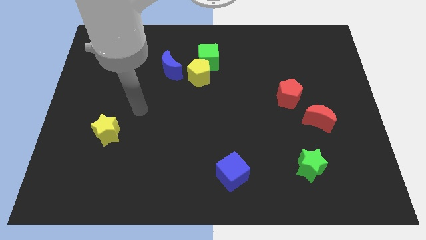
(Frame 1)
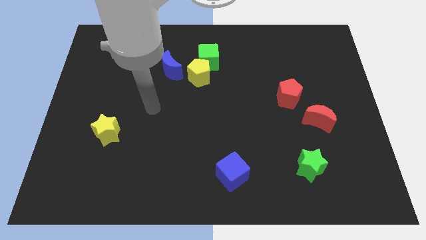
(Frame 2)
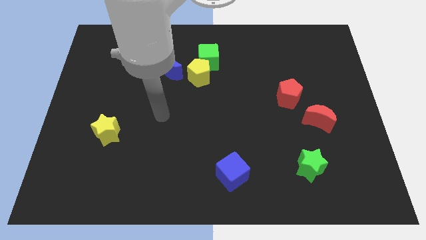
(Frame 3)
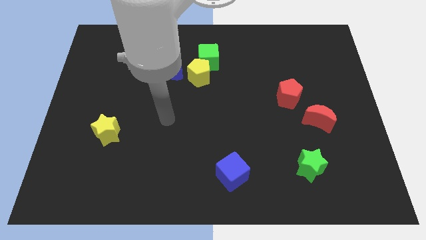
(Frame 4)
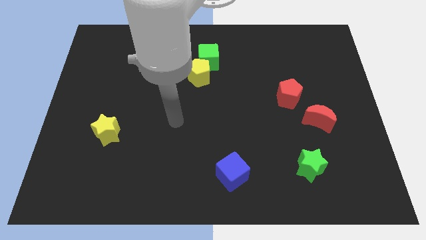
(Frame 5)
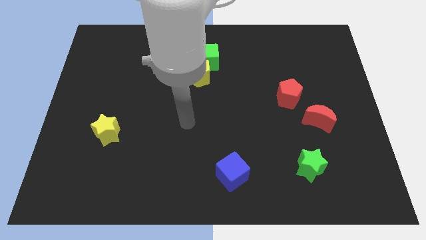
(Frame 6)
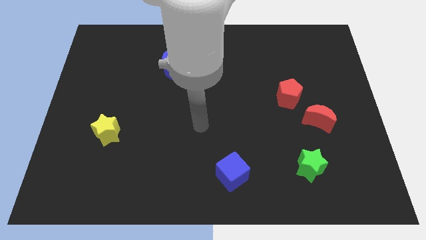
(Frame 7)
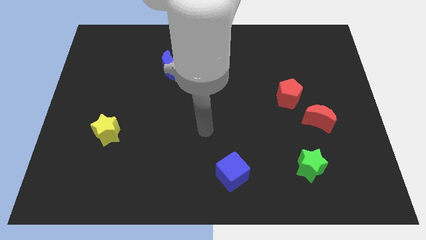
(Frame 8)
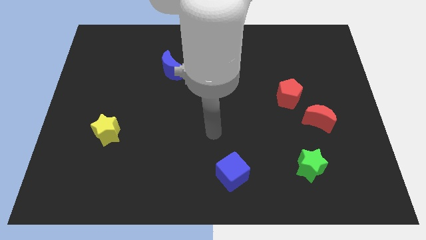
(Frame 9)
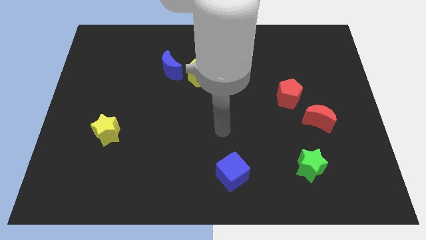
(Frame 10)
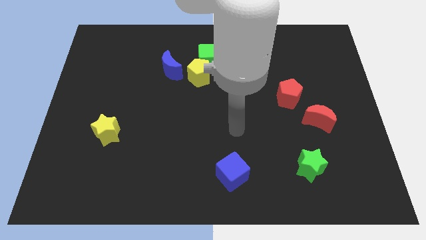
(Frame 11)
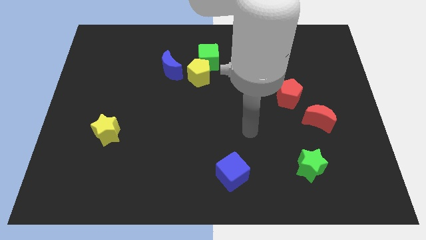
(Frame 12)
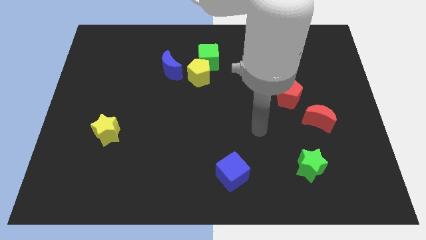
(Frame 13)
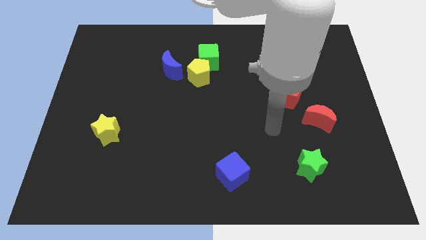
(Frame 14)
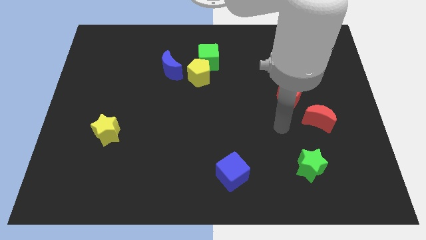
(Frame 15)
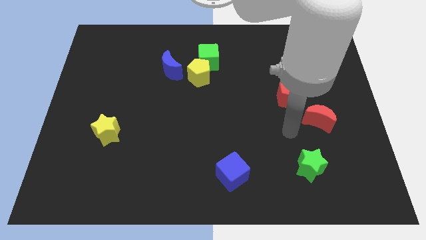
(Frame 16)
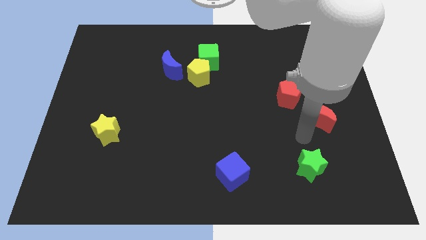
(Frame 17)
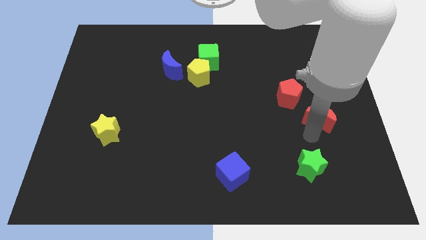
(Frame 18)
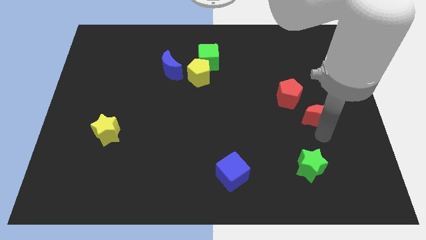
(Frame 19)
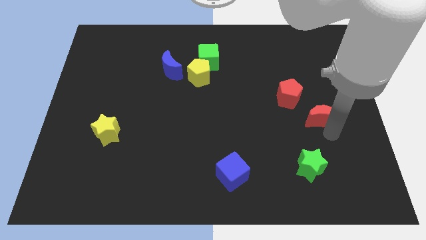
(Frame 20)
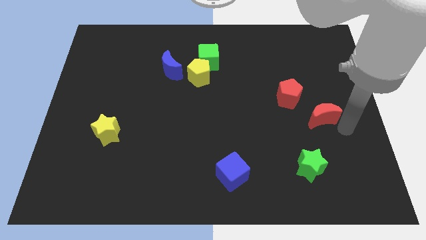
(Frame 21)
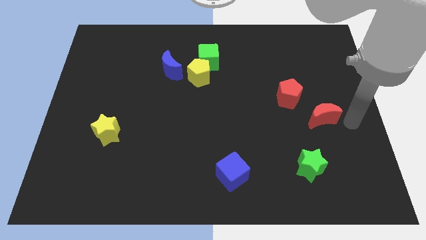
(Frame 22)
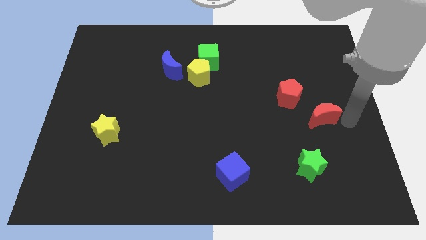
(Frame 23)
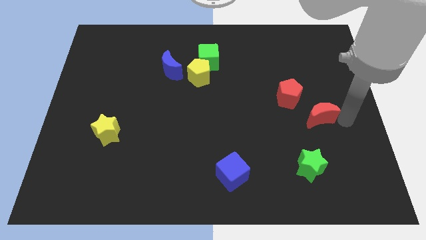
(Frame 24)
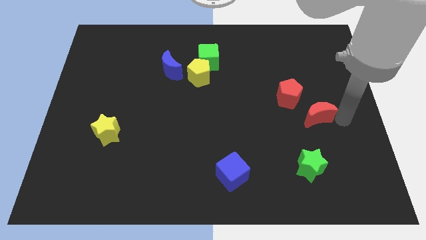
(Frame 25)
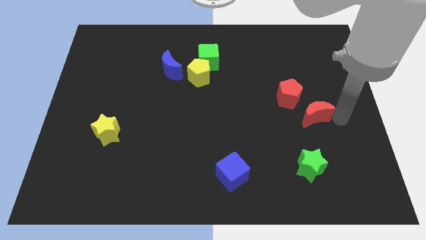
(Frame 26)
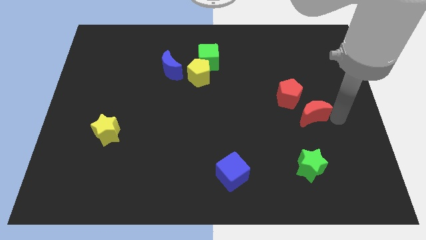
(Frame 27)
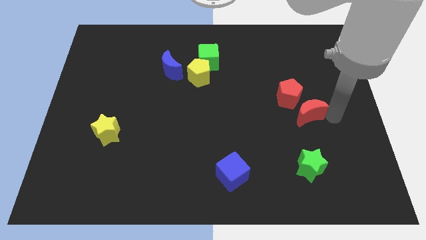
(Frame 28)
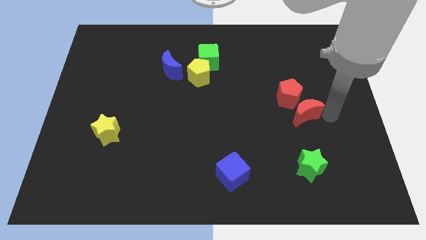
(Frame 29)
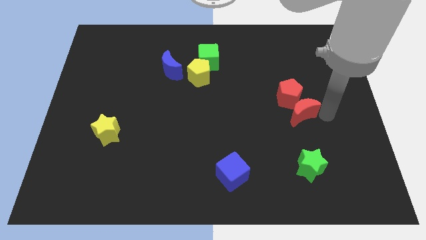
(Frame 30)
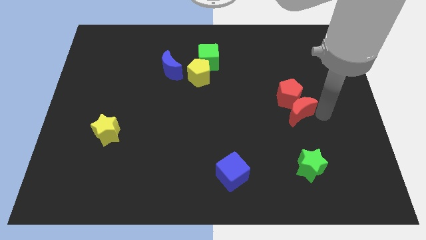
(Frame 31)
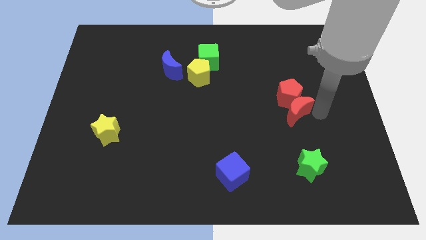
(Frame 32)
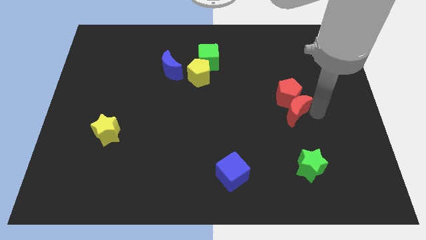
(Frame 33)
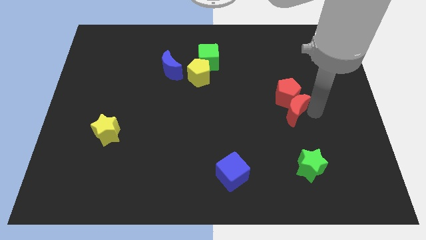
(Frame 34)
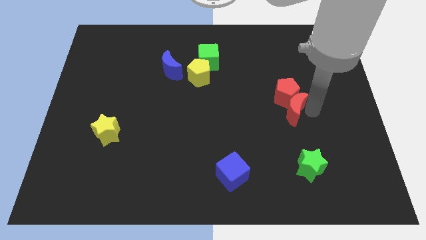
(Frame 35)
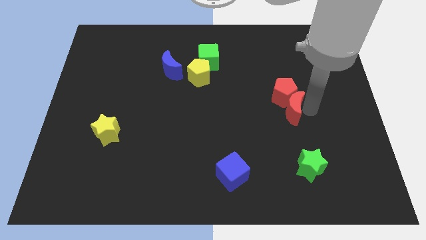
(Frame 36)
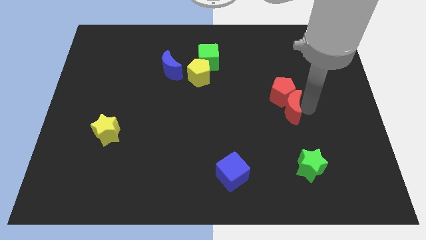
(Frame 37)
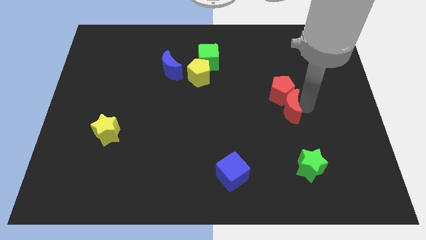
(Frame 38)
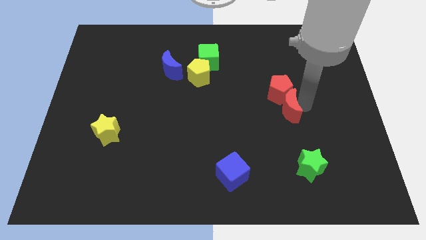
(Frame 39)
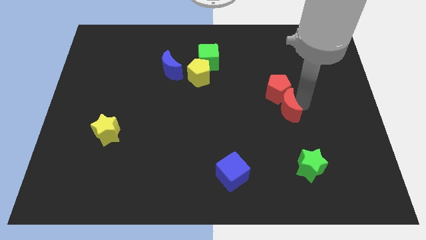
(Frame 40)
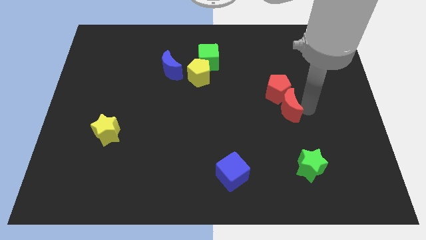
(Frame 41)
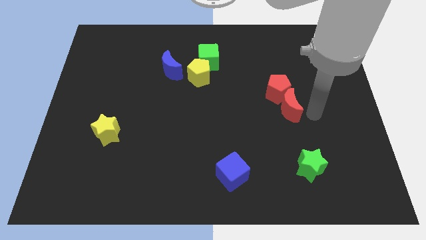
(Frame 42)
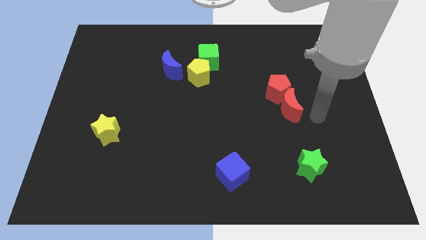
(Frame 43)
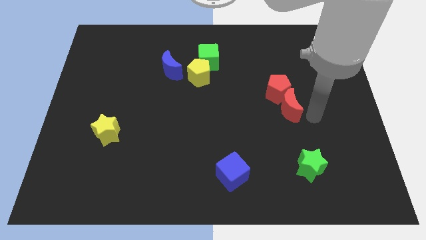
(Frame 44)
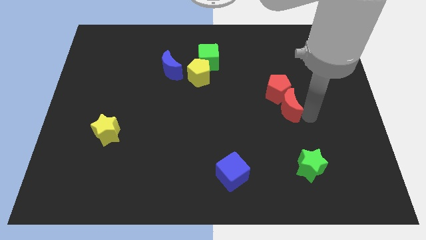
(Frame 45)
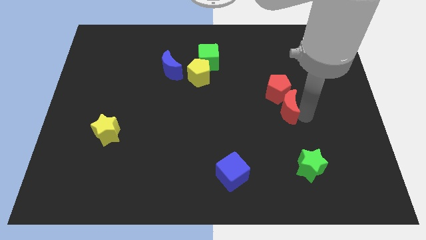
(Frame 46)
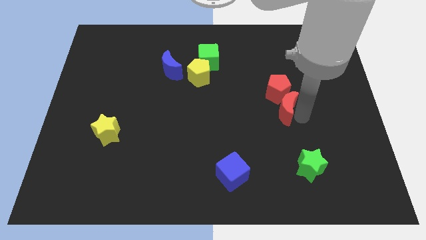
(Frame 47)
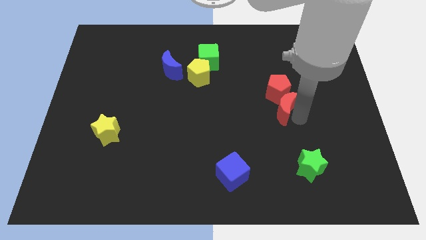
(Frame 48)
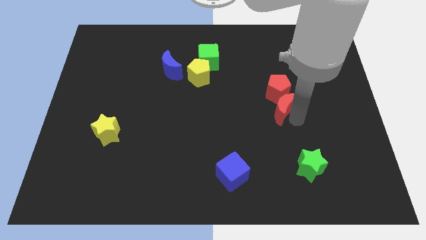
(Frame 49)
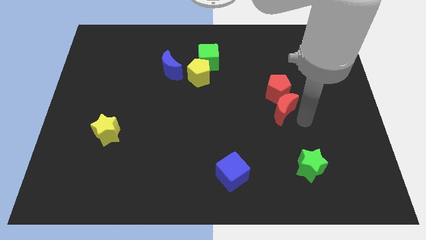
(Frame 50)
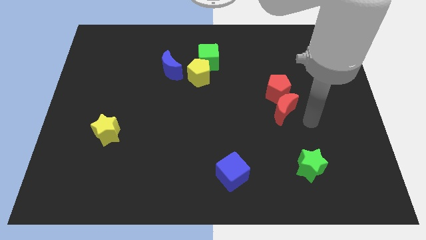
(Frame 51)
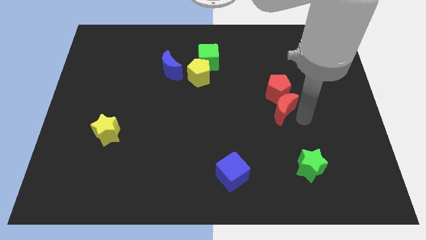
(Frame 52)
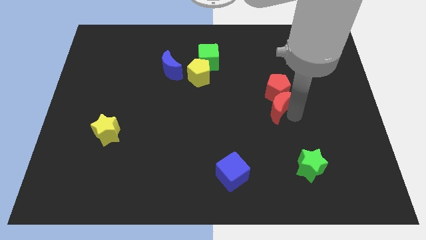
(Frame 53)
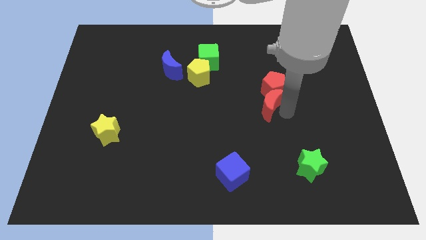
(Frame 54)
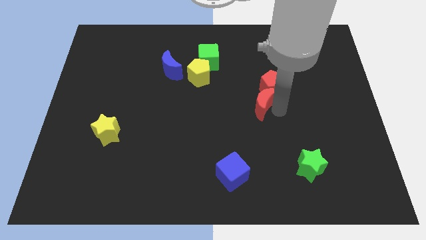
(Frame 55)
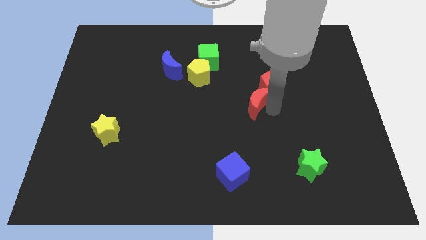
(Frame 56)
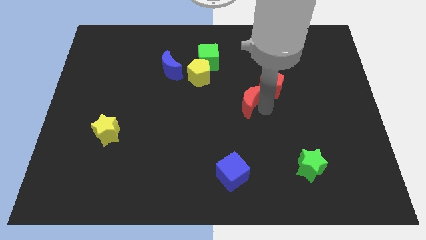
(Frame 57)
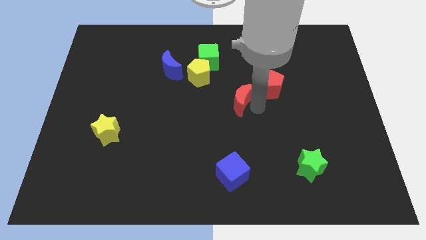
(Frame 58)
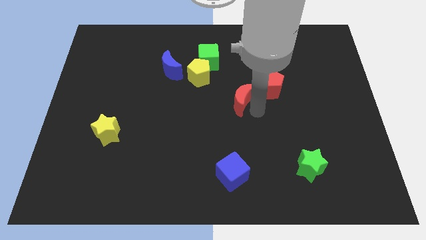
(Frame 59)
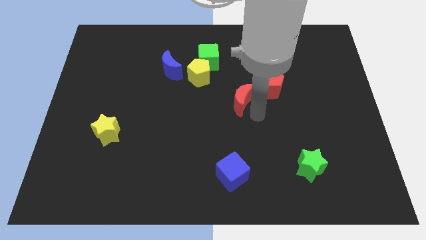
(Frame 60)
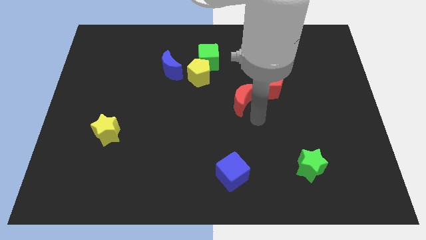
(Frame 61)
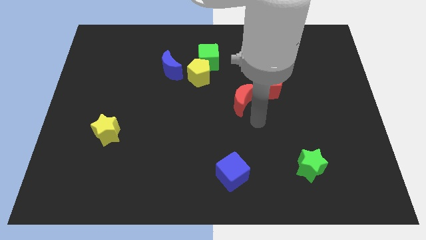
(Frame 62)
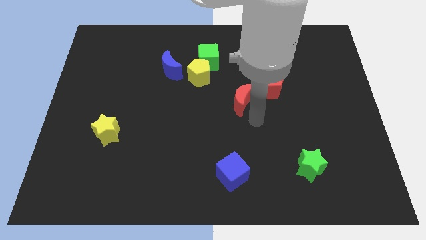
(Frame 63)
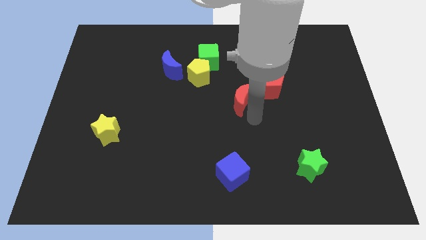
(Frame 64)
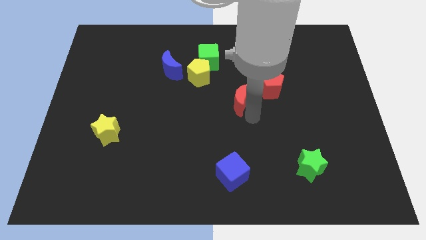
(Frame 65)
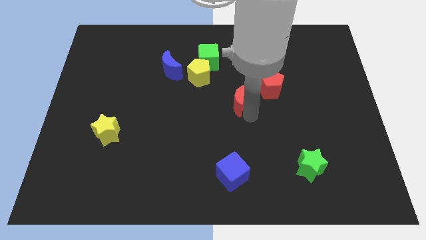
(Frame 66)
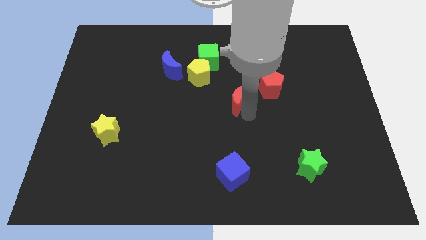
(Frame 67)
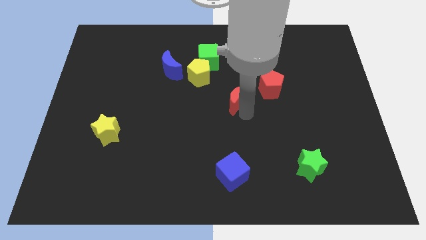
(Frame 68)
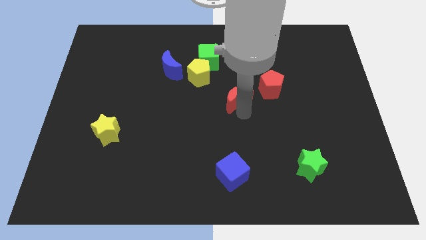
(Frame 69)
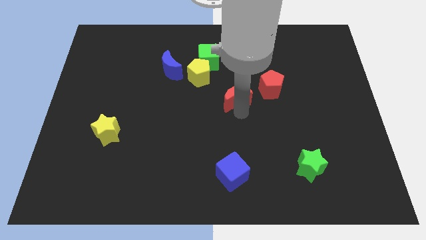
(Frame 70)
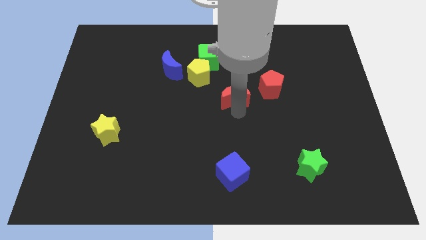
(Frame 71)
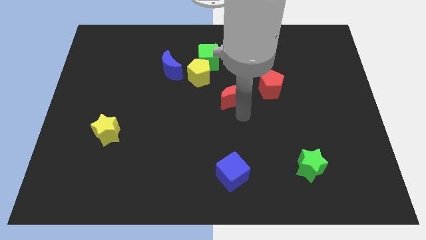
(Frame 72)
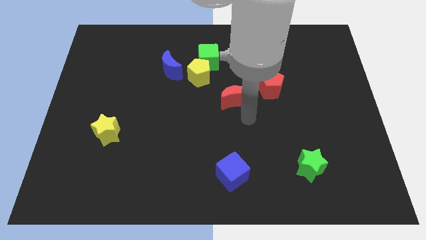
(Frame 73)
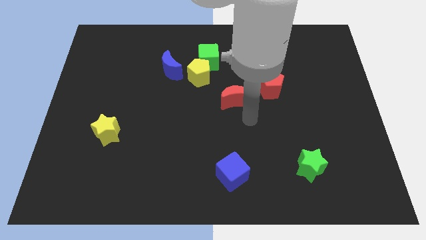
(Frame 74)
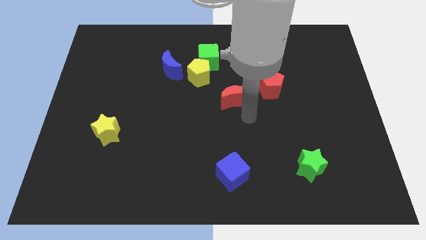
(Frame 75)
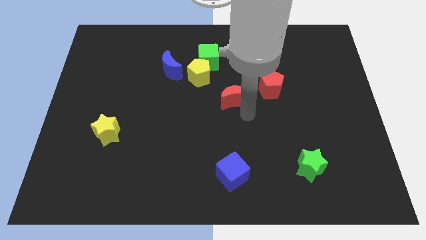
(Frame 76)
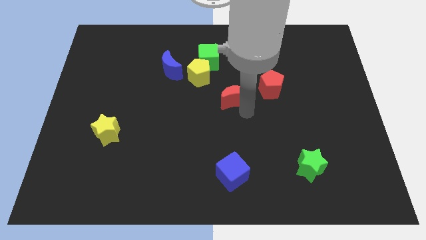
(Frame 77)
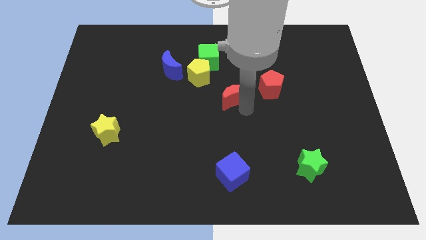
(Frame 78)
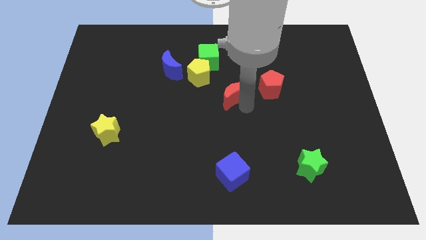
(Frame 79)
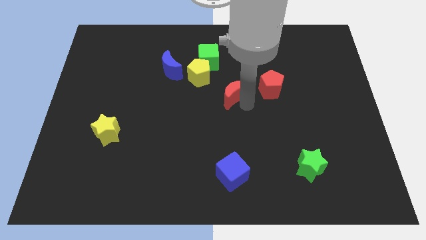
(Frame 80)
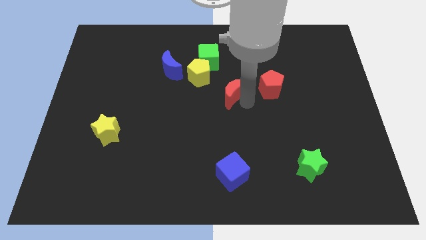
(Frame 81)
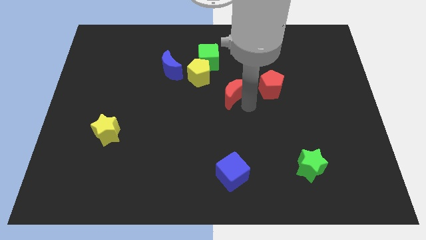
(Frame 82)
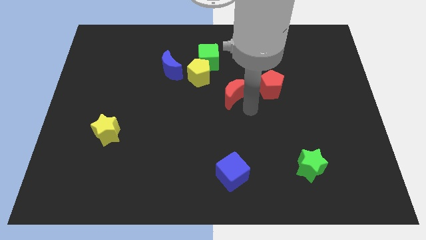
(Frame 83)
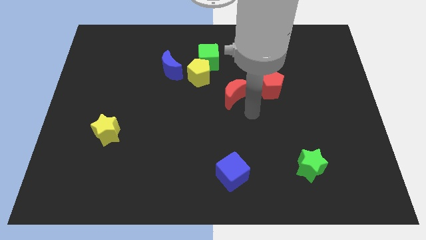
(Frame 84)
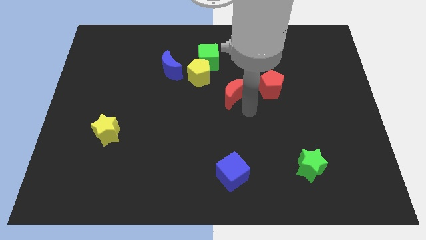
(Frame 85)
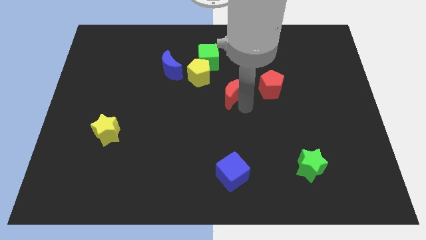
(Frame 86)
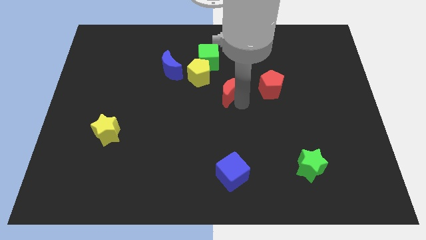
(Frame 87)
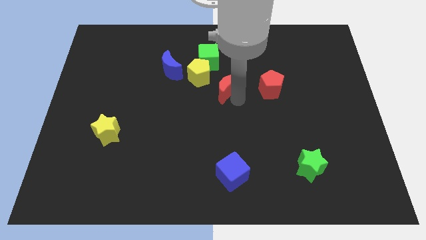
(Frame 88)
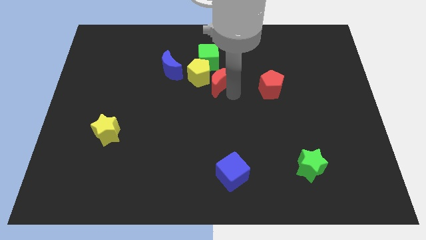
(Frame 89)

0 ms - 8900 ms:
push the red moon next to the yellow pentagon
